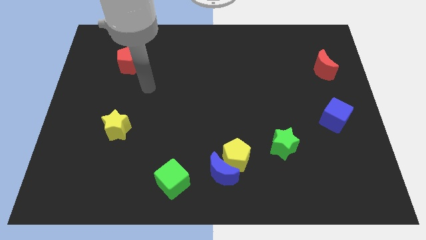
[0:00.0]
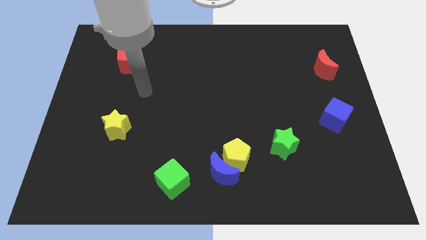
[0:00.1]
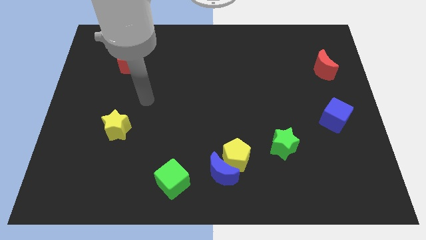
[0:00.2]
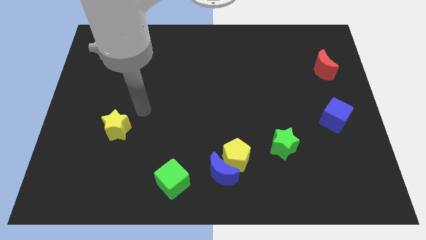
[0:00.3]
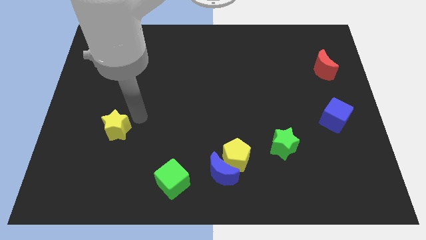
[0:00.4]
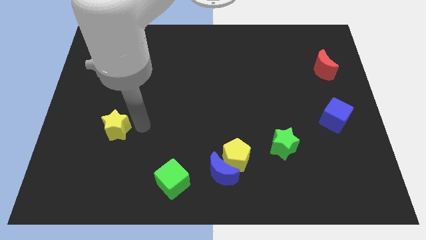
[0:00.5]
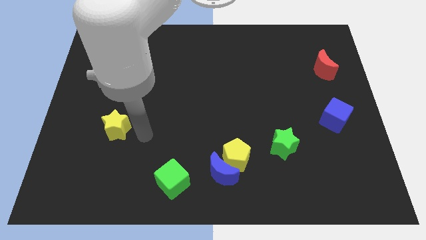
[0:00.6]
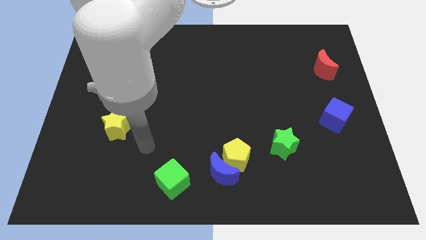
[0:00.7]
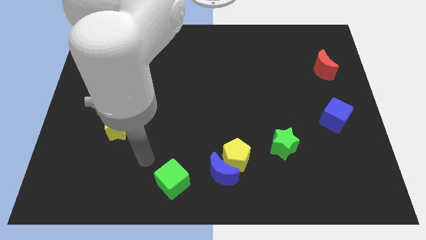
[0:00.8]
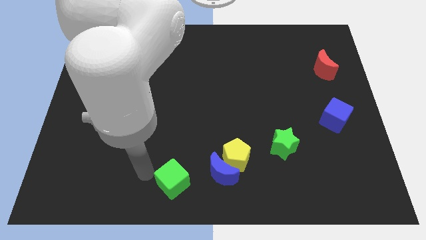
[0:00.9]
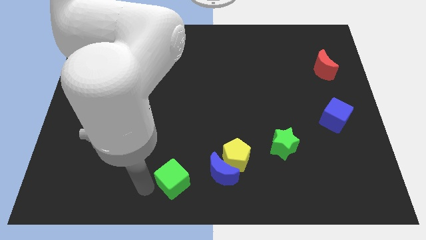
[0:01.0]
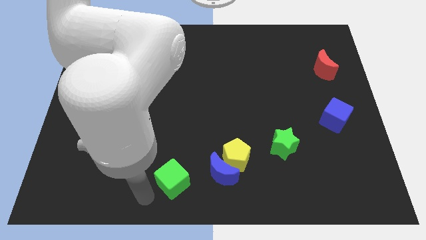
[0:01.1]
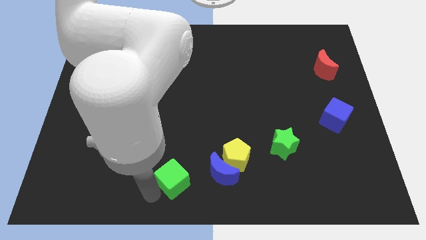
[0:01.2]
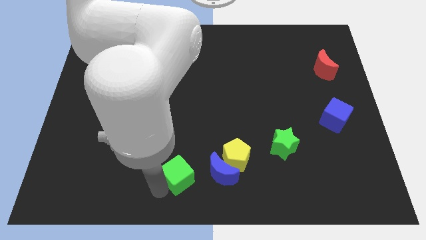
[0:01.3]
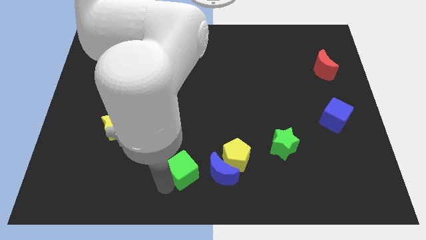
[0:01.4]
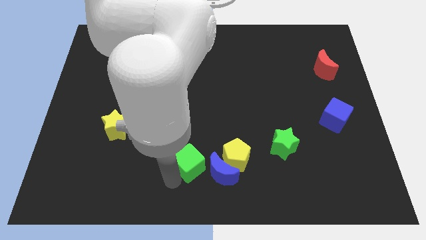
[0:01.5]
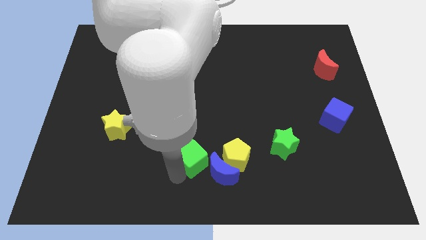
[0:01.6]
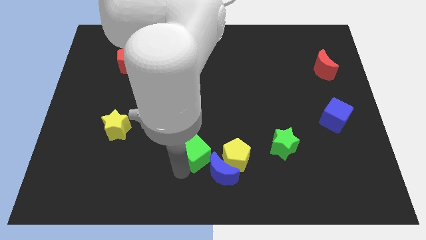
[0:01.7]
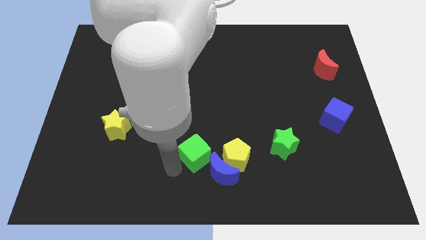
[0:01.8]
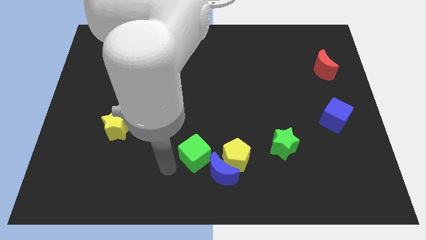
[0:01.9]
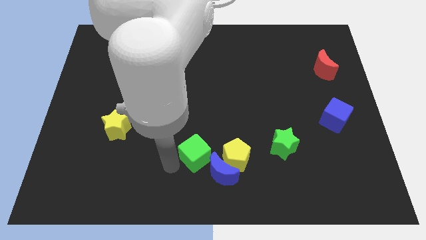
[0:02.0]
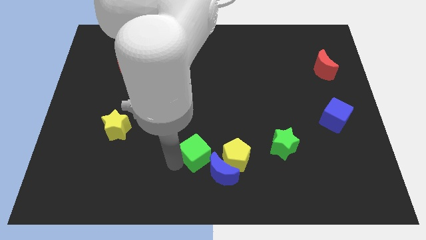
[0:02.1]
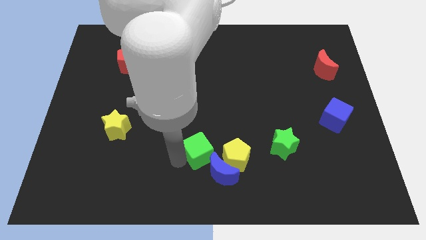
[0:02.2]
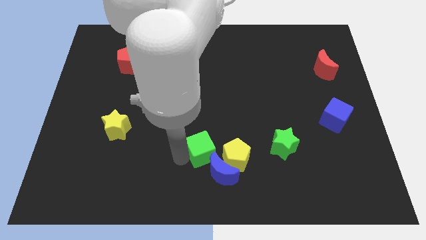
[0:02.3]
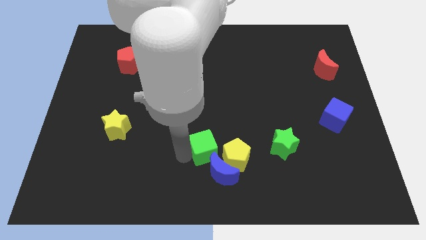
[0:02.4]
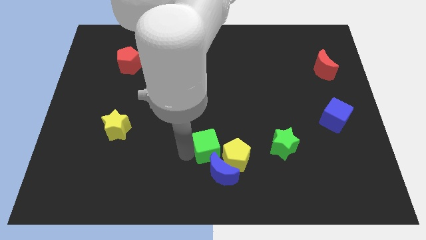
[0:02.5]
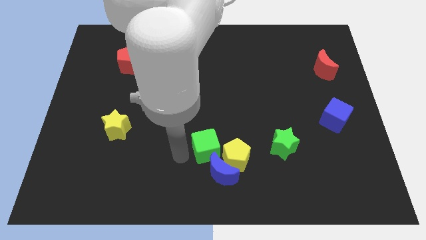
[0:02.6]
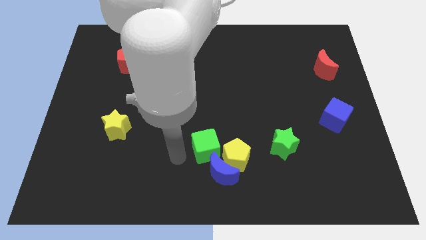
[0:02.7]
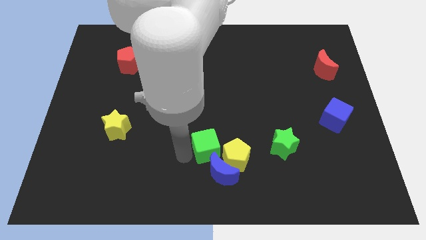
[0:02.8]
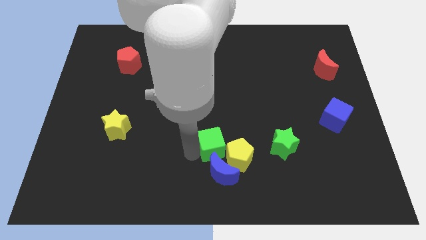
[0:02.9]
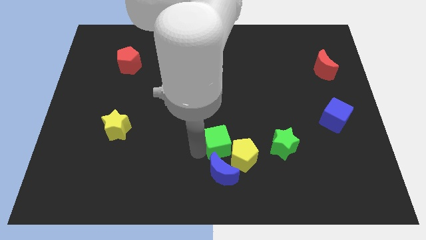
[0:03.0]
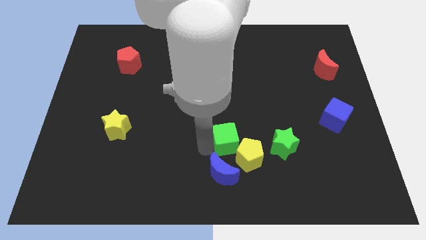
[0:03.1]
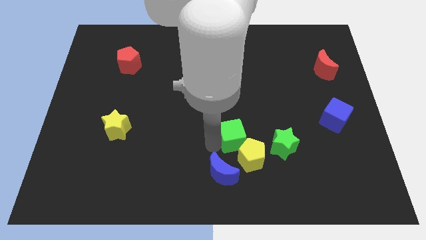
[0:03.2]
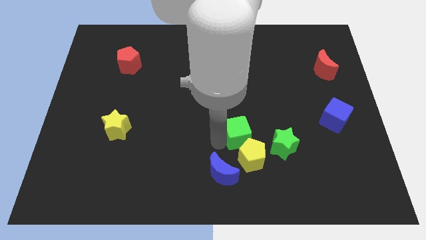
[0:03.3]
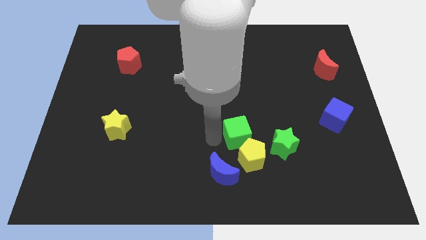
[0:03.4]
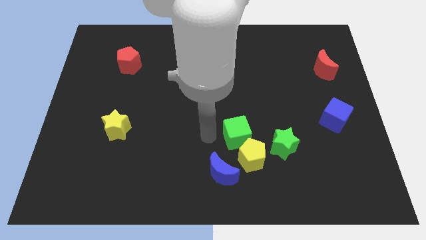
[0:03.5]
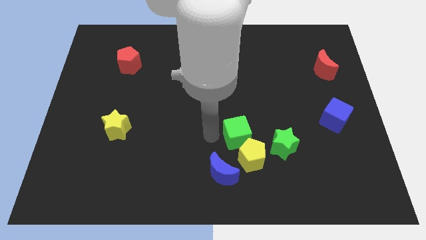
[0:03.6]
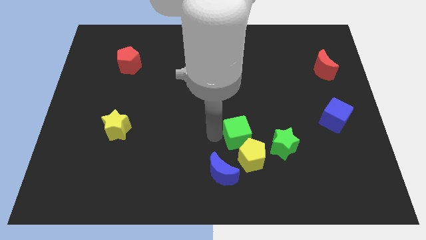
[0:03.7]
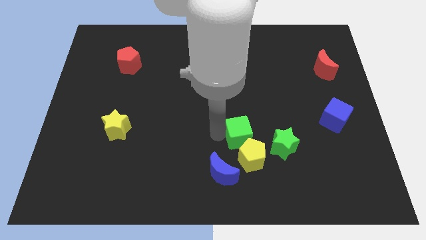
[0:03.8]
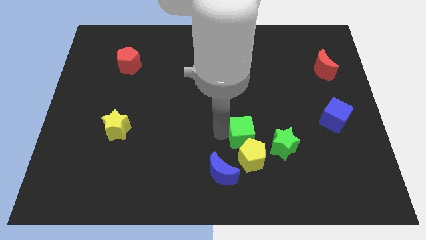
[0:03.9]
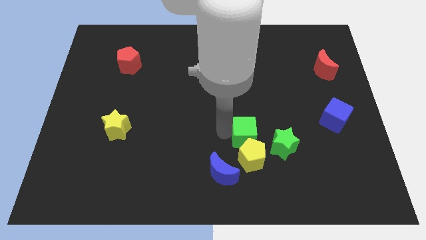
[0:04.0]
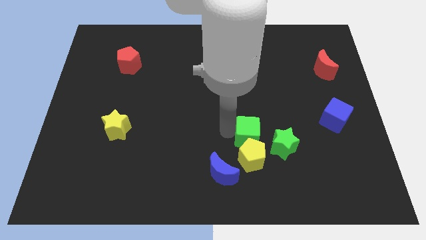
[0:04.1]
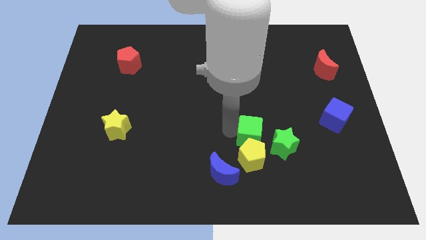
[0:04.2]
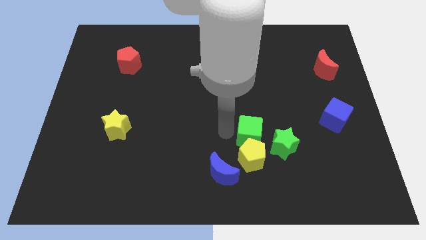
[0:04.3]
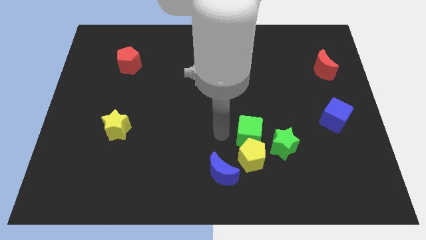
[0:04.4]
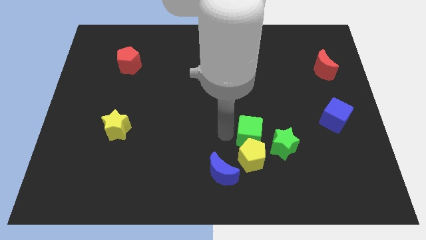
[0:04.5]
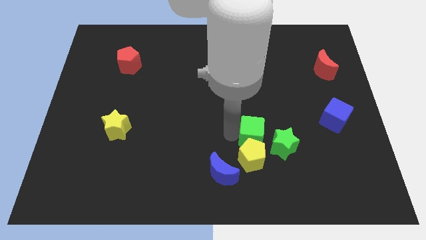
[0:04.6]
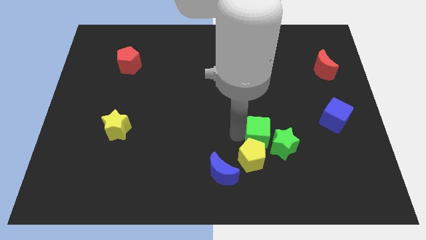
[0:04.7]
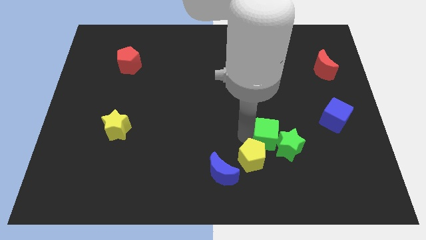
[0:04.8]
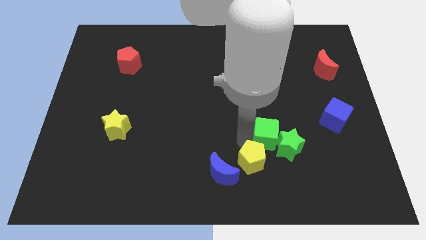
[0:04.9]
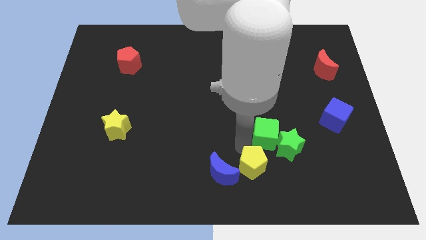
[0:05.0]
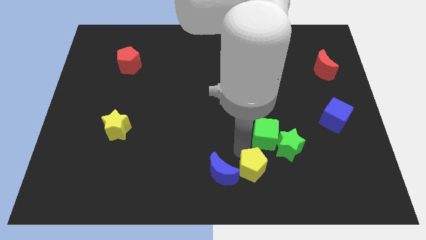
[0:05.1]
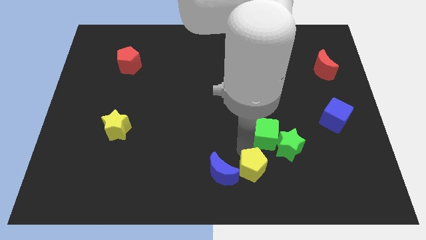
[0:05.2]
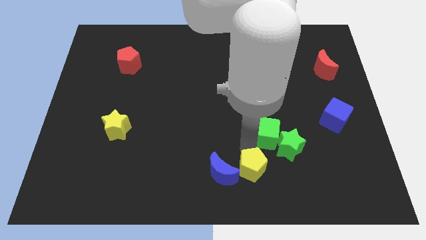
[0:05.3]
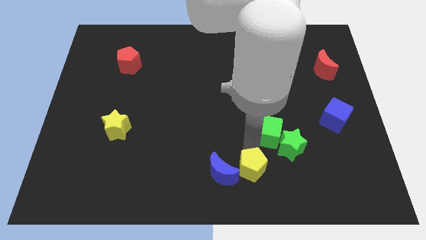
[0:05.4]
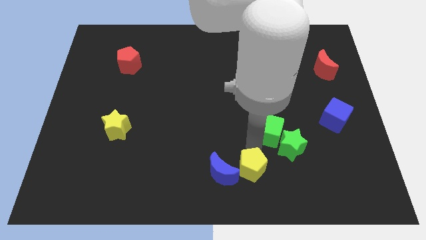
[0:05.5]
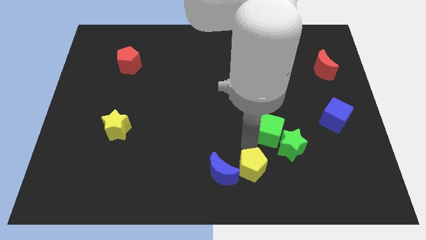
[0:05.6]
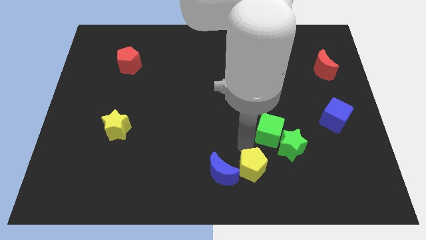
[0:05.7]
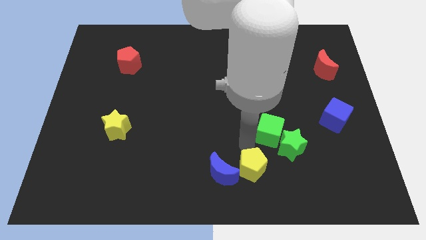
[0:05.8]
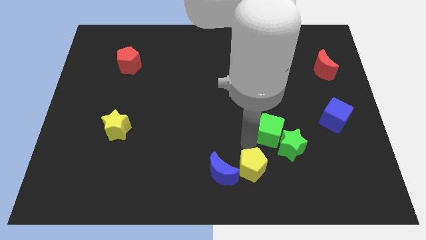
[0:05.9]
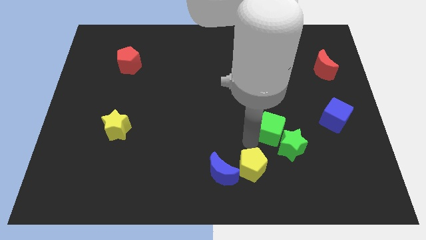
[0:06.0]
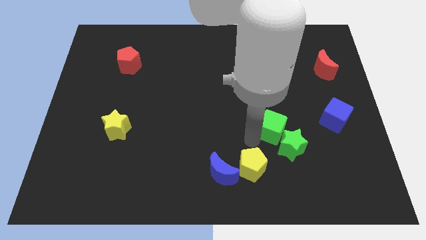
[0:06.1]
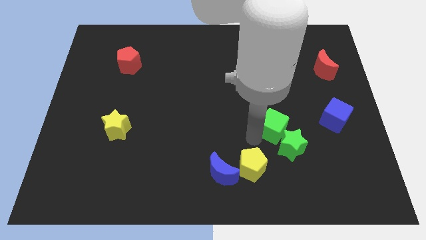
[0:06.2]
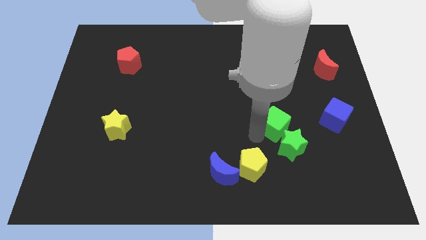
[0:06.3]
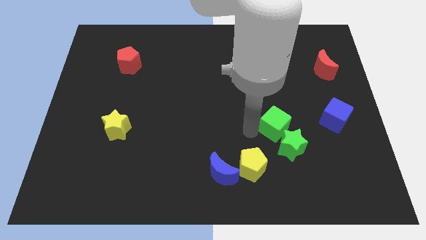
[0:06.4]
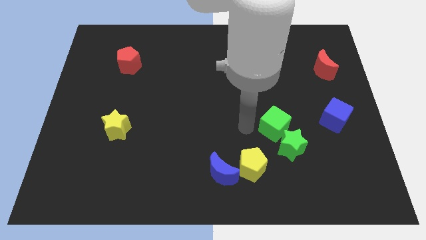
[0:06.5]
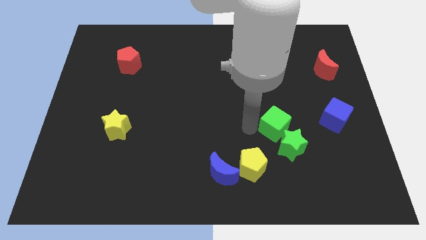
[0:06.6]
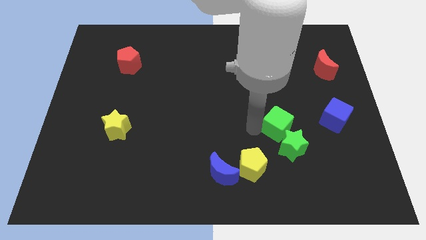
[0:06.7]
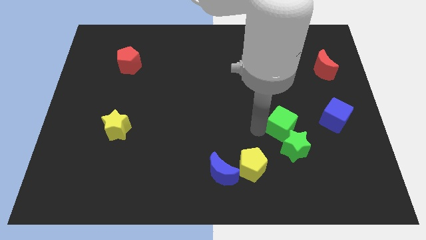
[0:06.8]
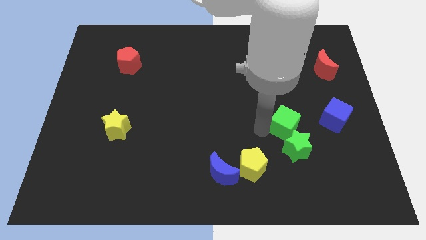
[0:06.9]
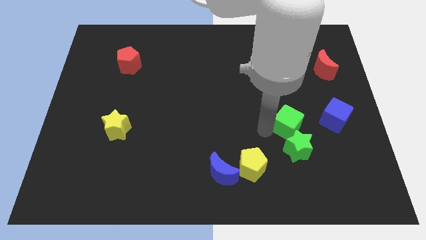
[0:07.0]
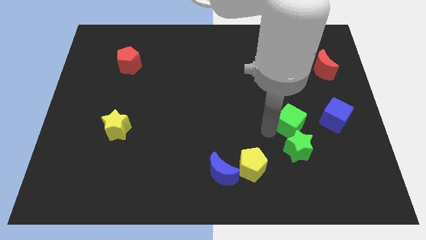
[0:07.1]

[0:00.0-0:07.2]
move the green cube diagonally up and to the right of the green star
